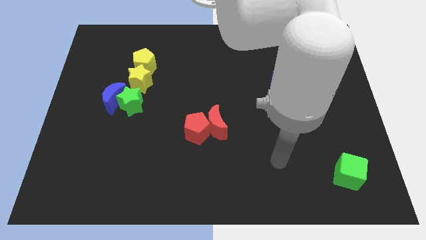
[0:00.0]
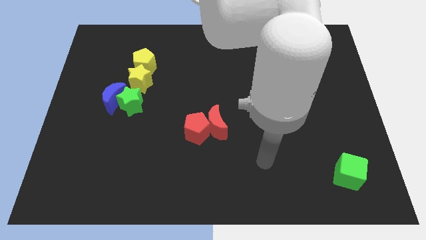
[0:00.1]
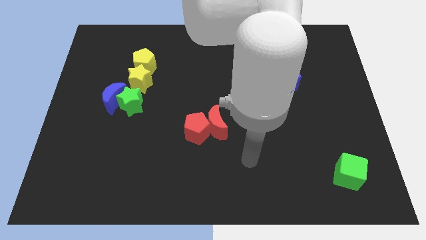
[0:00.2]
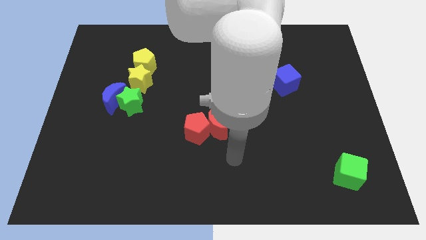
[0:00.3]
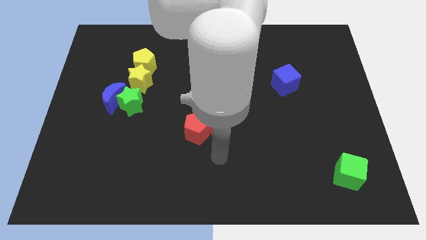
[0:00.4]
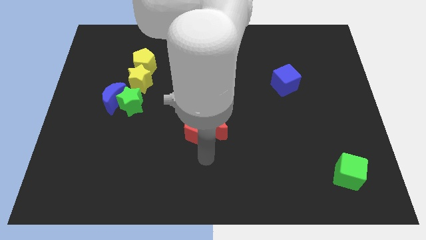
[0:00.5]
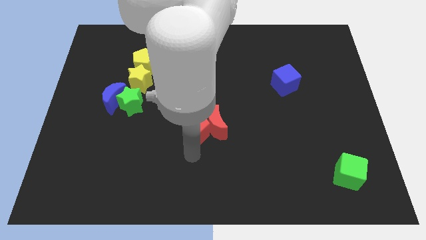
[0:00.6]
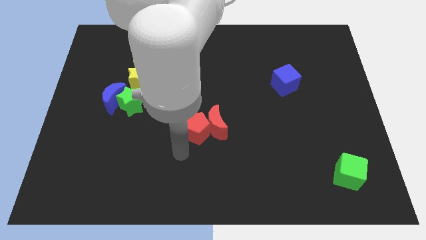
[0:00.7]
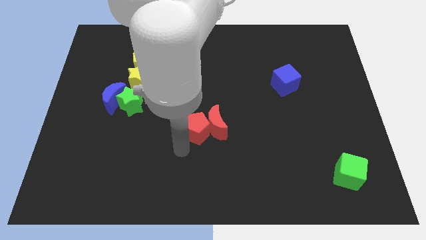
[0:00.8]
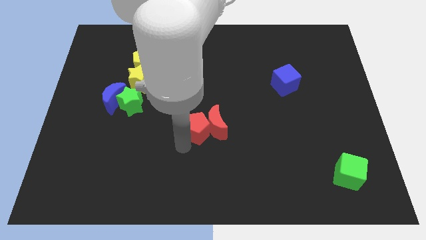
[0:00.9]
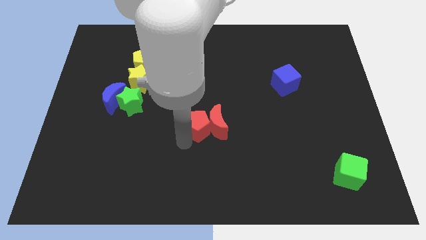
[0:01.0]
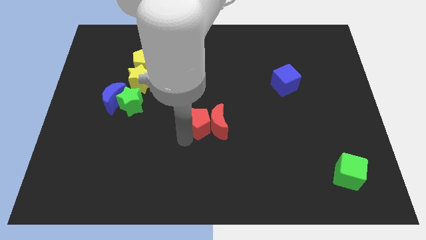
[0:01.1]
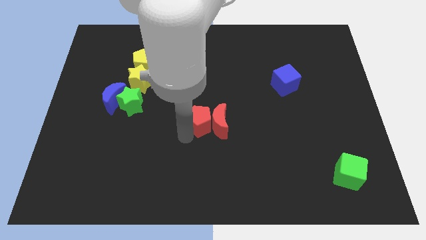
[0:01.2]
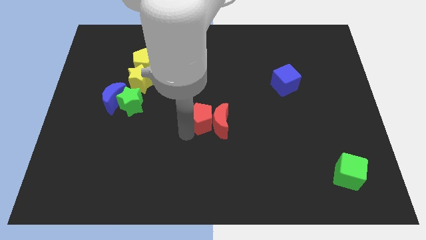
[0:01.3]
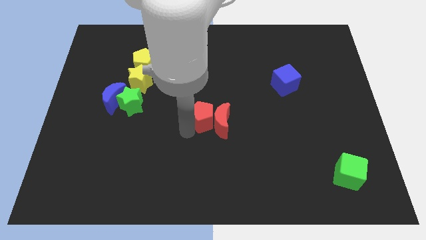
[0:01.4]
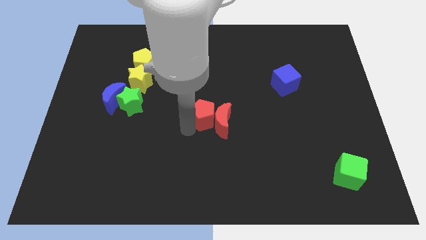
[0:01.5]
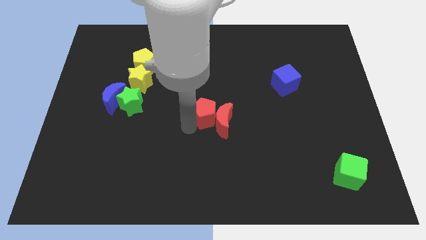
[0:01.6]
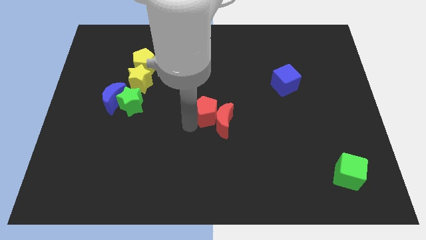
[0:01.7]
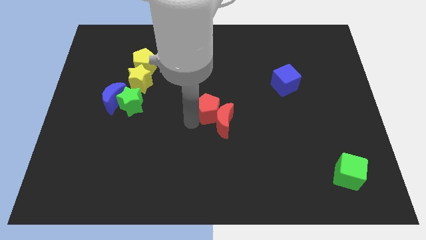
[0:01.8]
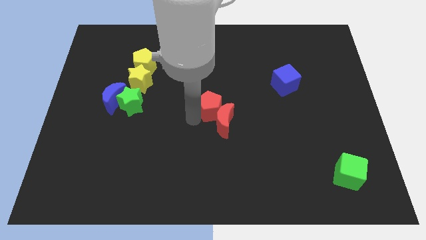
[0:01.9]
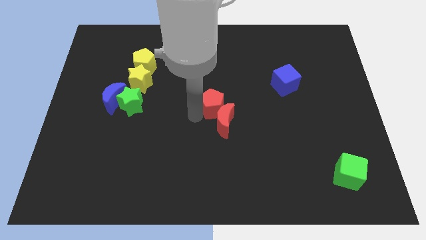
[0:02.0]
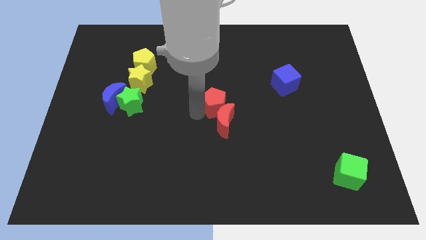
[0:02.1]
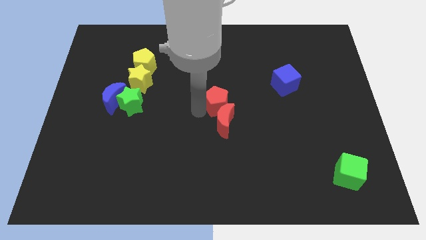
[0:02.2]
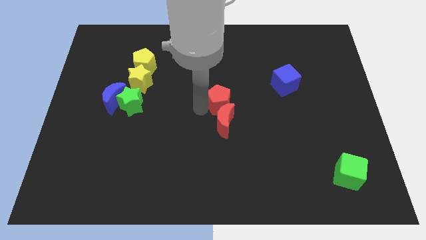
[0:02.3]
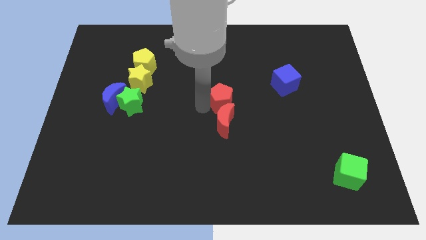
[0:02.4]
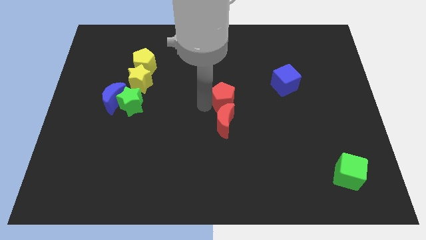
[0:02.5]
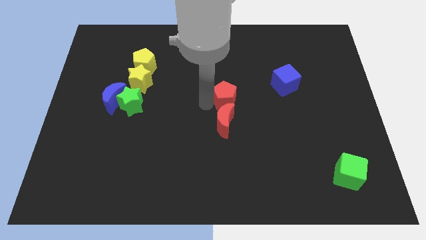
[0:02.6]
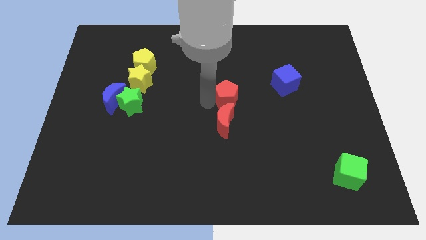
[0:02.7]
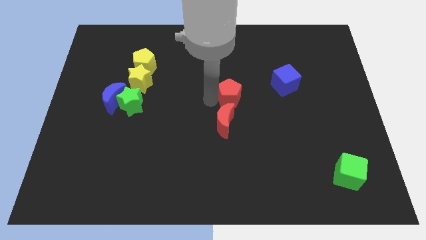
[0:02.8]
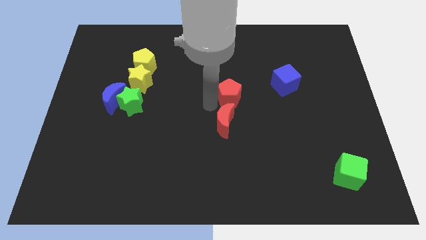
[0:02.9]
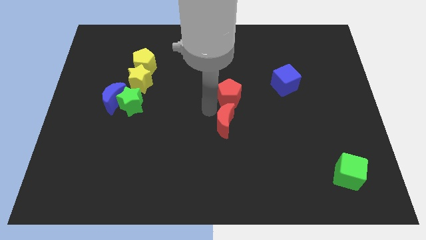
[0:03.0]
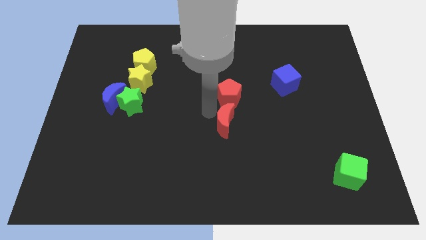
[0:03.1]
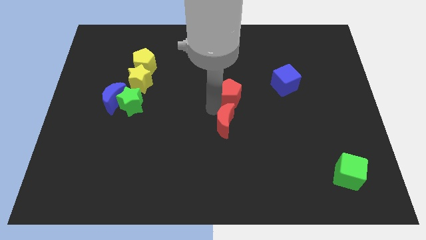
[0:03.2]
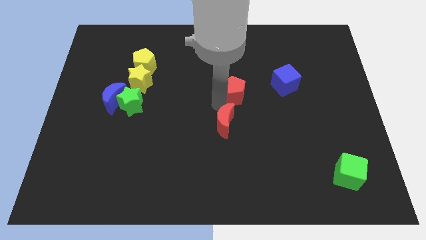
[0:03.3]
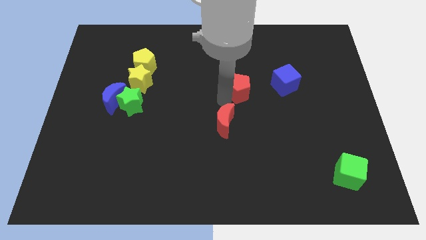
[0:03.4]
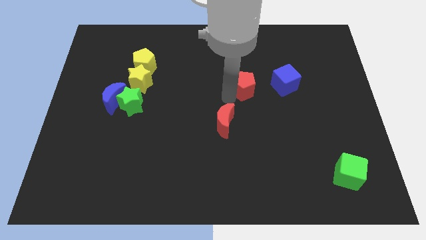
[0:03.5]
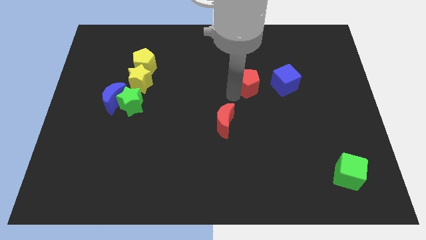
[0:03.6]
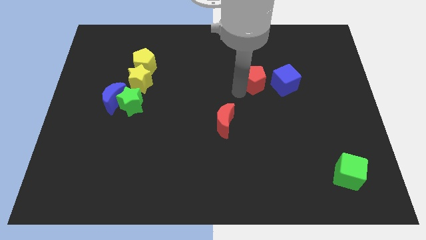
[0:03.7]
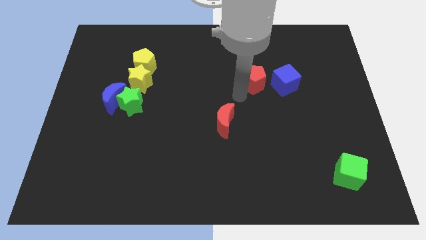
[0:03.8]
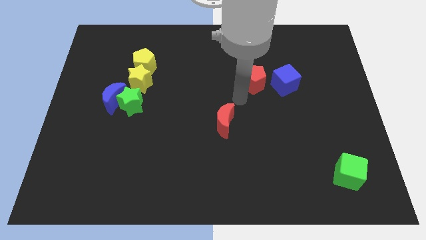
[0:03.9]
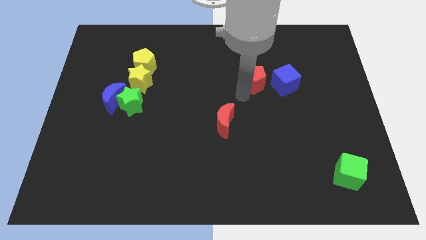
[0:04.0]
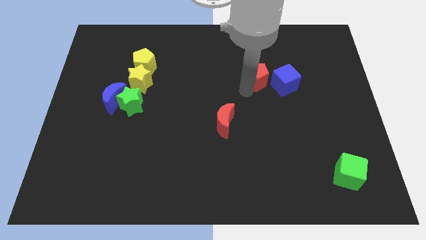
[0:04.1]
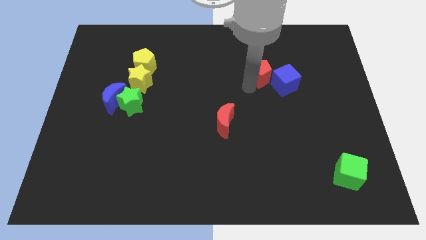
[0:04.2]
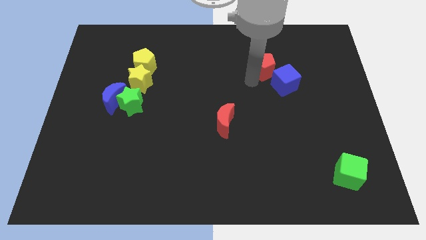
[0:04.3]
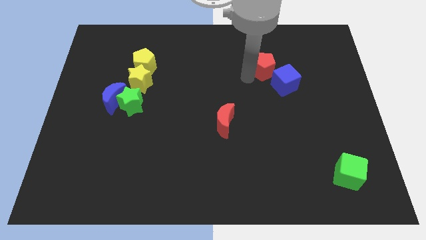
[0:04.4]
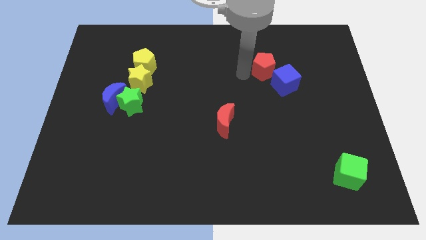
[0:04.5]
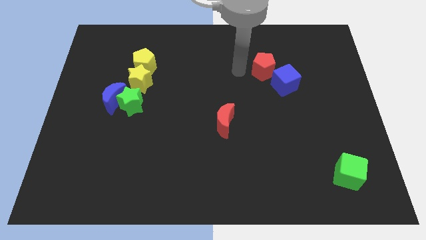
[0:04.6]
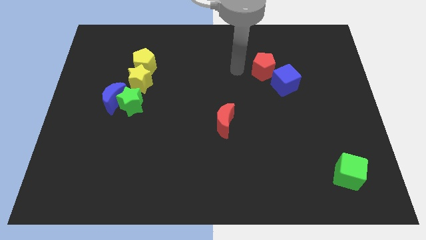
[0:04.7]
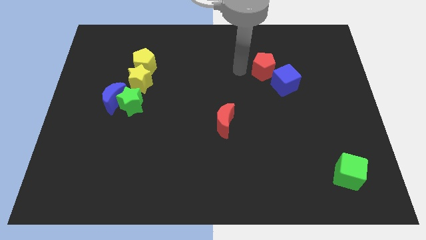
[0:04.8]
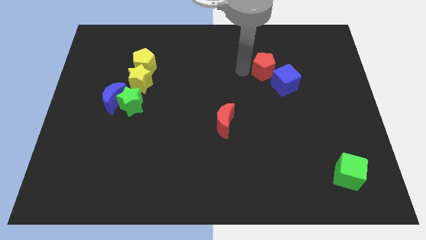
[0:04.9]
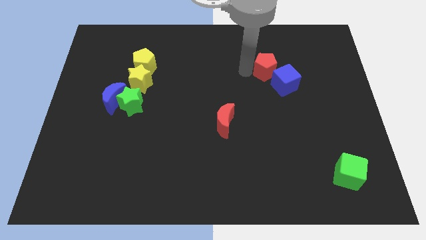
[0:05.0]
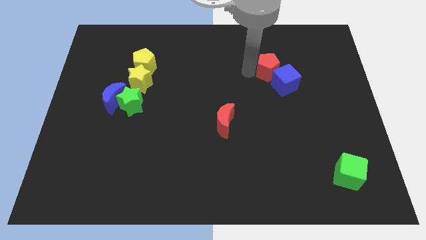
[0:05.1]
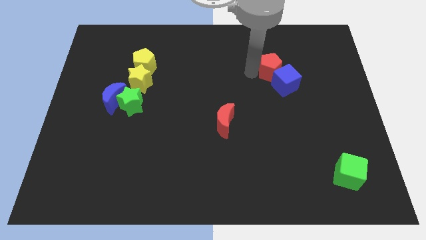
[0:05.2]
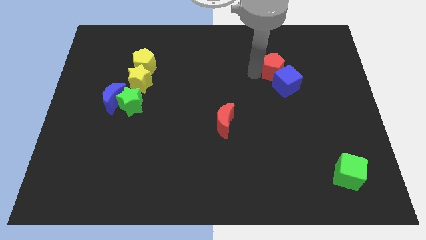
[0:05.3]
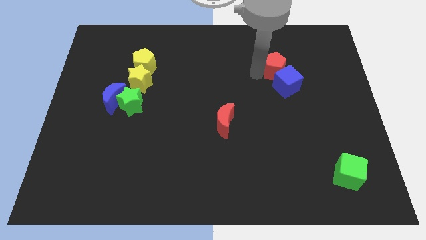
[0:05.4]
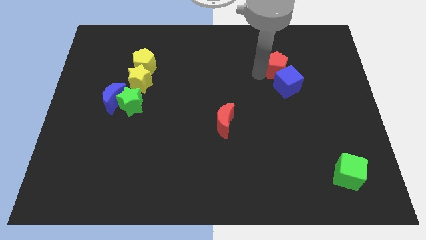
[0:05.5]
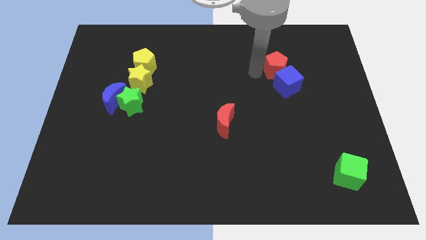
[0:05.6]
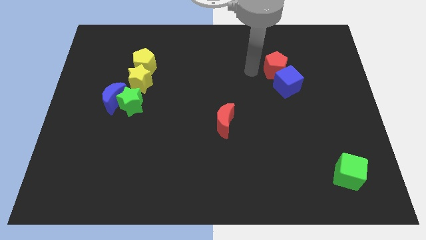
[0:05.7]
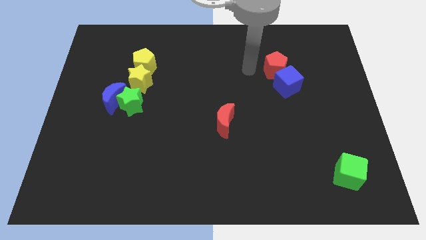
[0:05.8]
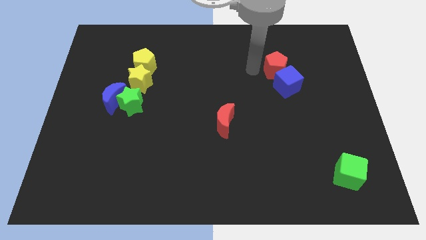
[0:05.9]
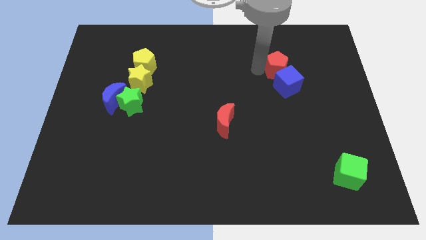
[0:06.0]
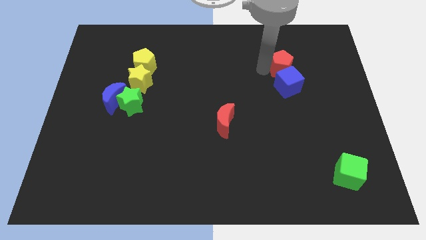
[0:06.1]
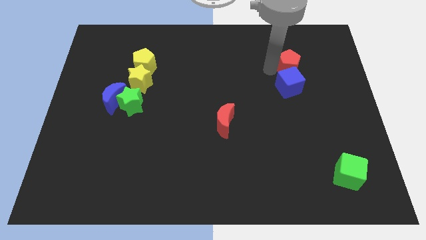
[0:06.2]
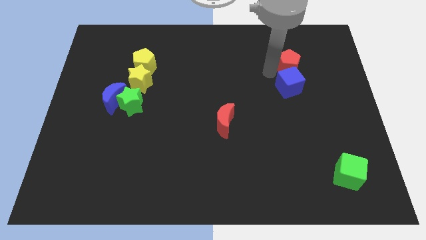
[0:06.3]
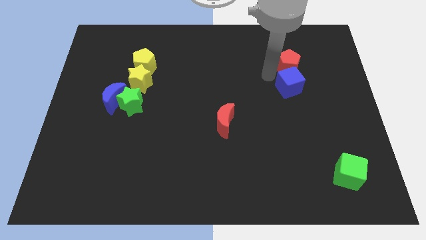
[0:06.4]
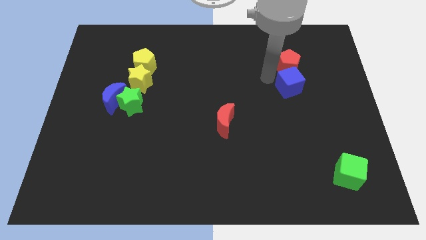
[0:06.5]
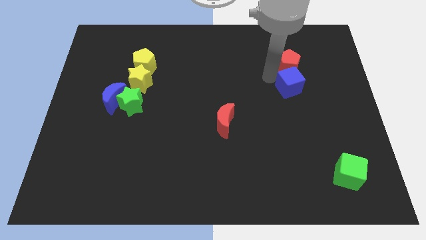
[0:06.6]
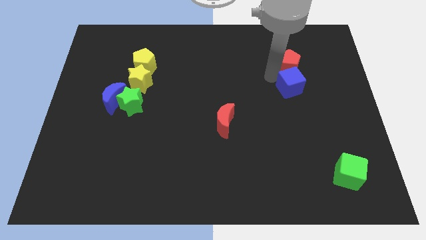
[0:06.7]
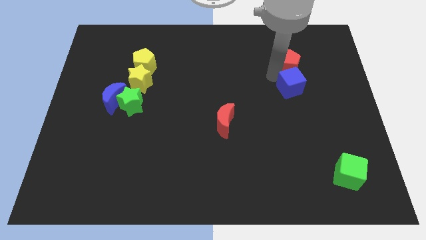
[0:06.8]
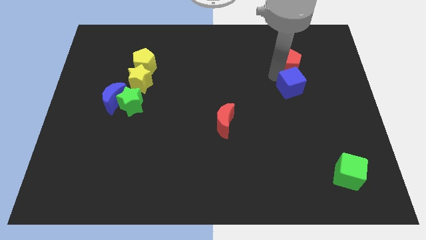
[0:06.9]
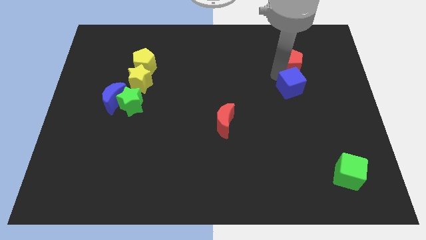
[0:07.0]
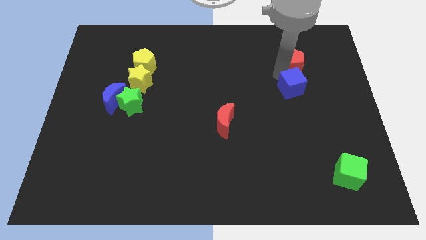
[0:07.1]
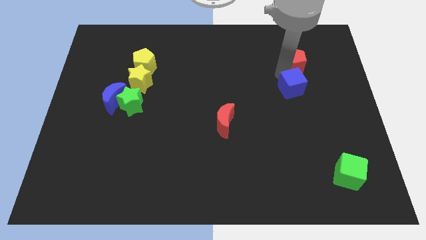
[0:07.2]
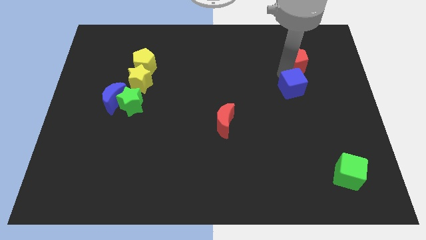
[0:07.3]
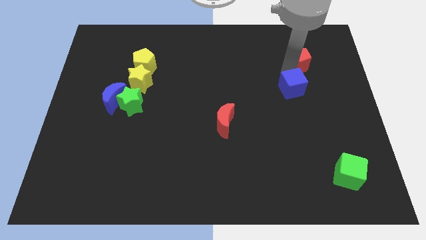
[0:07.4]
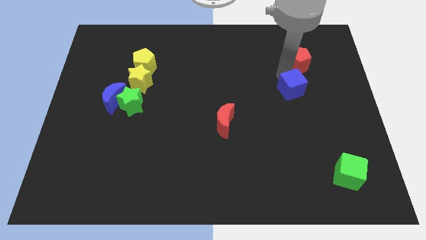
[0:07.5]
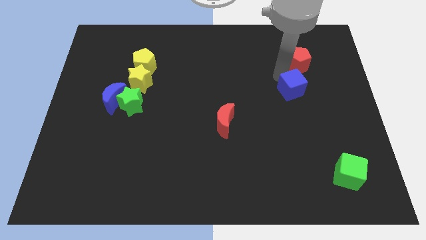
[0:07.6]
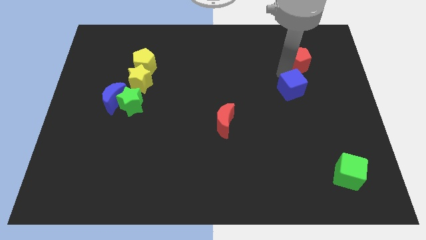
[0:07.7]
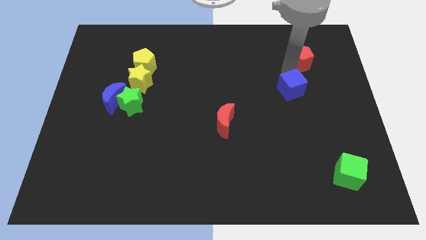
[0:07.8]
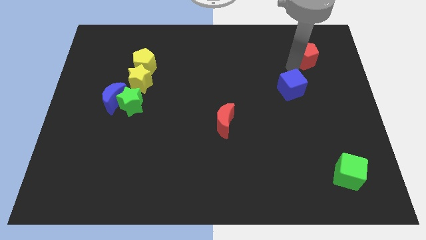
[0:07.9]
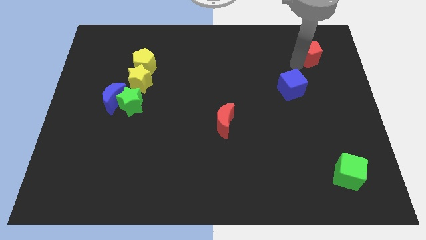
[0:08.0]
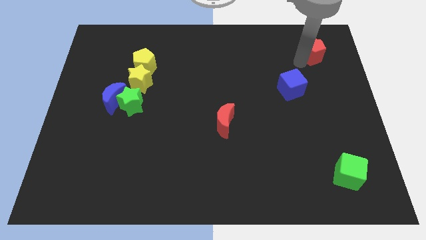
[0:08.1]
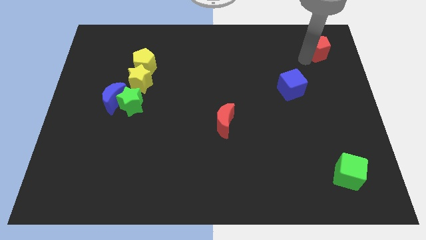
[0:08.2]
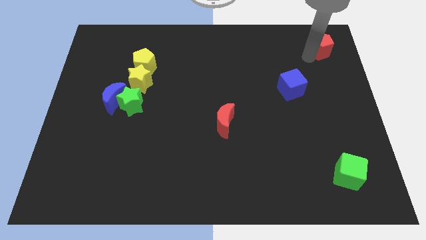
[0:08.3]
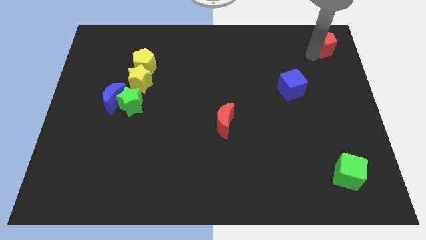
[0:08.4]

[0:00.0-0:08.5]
push the red pentagon to the top right corner
